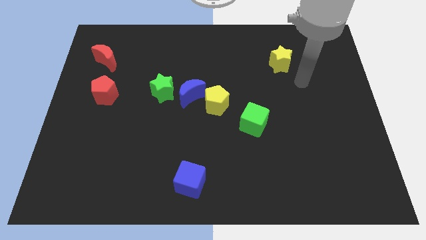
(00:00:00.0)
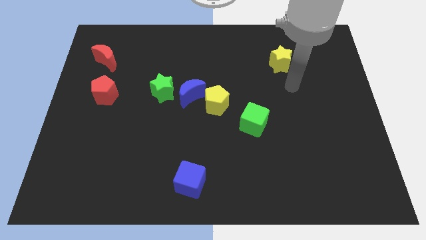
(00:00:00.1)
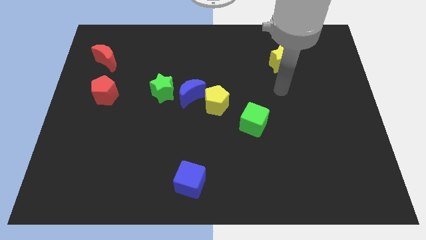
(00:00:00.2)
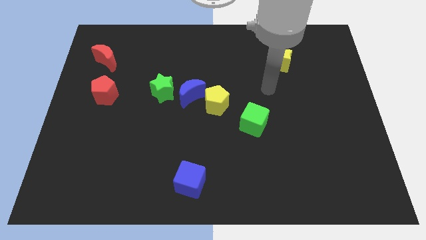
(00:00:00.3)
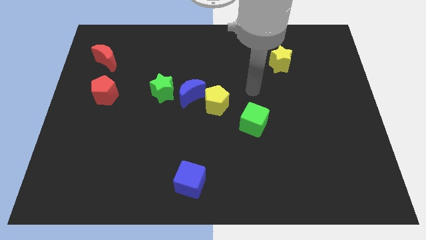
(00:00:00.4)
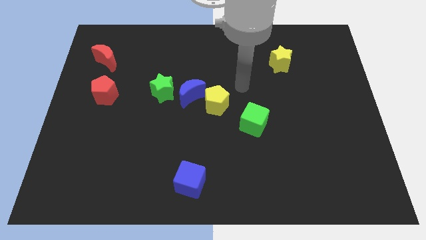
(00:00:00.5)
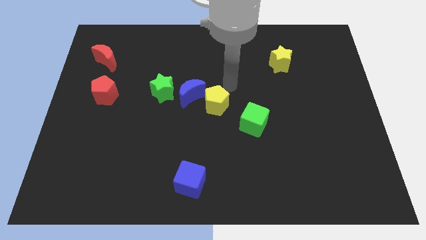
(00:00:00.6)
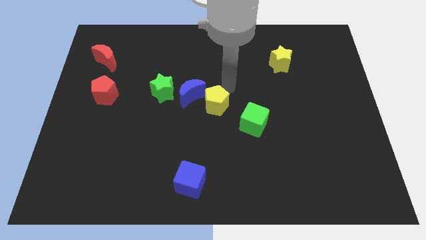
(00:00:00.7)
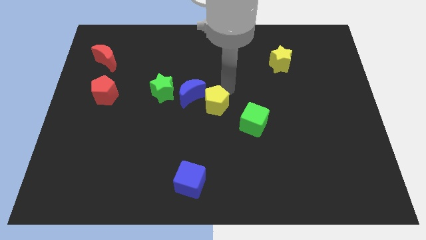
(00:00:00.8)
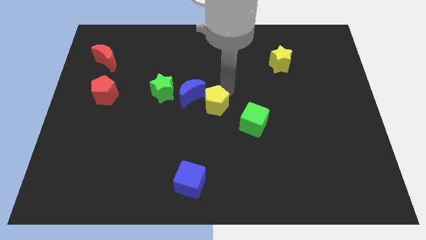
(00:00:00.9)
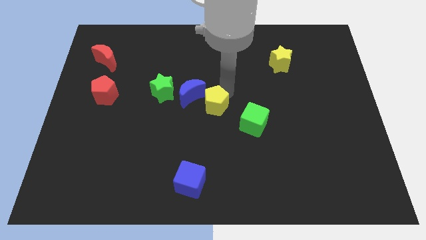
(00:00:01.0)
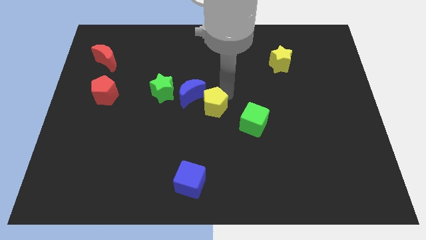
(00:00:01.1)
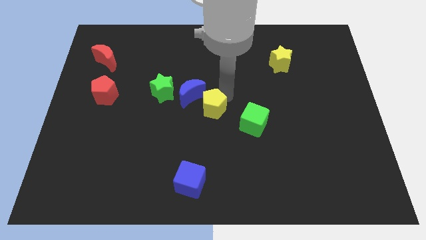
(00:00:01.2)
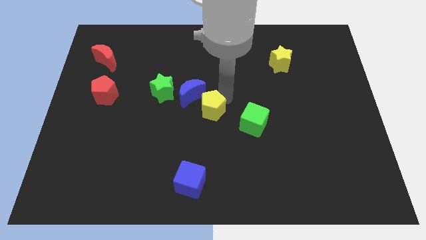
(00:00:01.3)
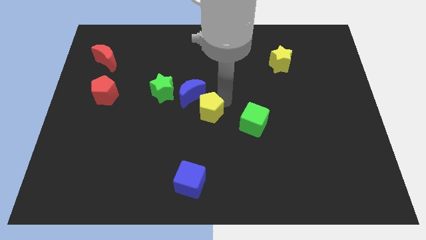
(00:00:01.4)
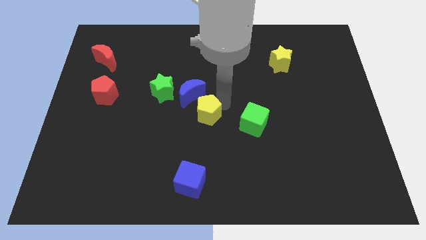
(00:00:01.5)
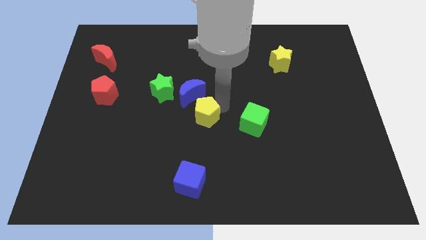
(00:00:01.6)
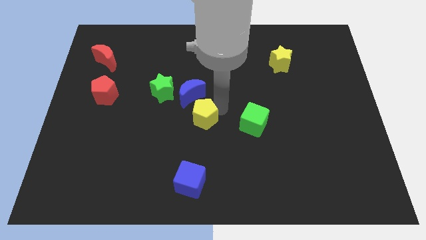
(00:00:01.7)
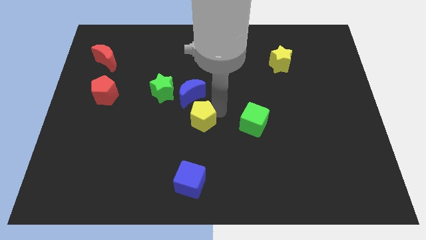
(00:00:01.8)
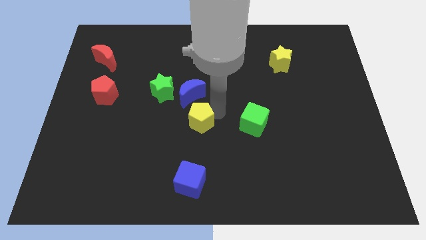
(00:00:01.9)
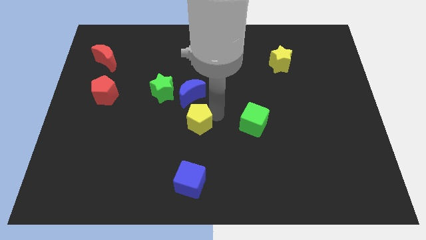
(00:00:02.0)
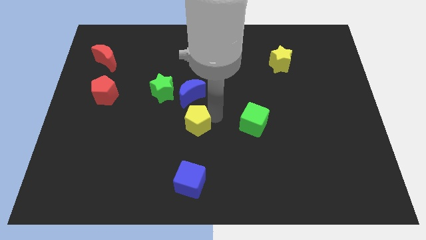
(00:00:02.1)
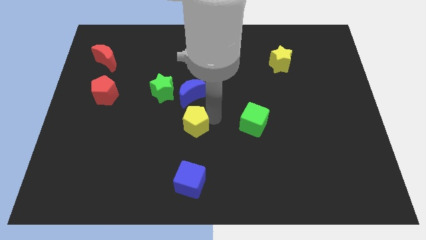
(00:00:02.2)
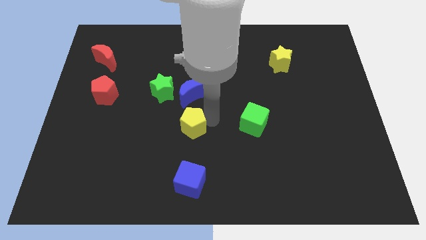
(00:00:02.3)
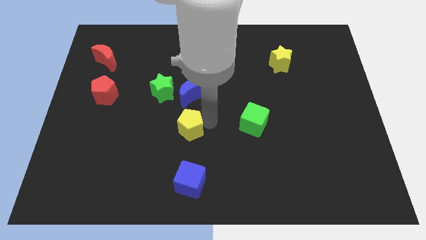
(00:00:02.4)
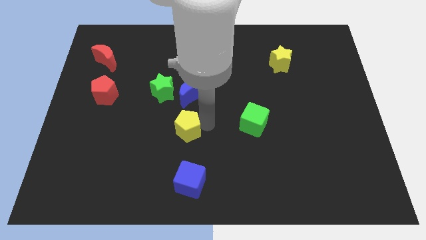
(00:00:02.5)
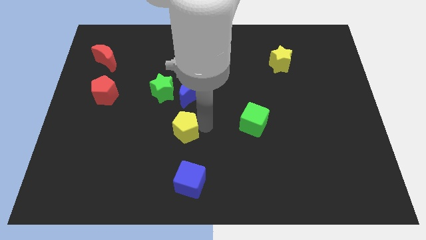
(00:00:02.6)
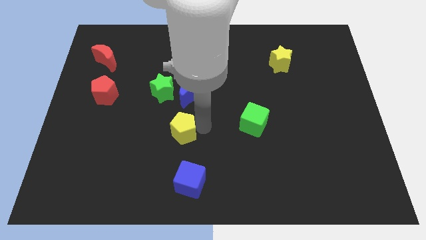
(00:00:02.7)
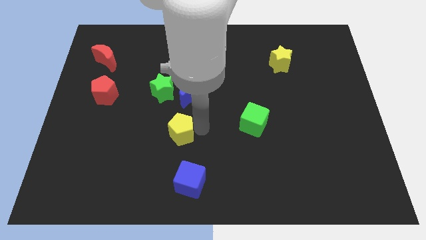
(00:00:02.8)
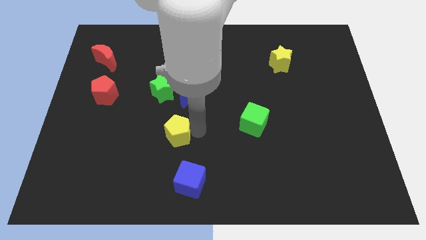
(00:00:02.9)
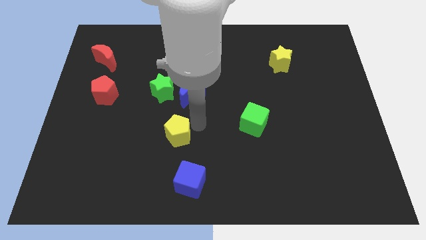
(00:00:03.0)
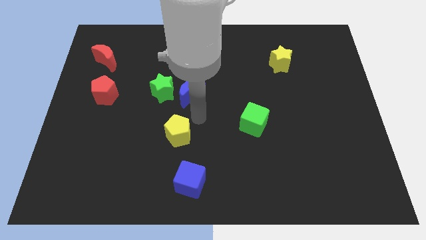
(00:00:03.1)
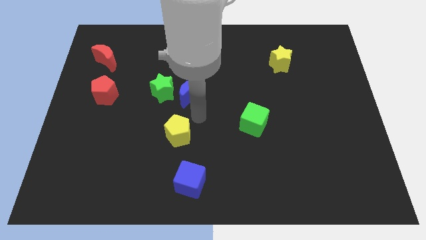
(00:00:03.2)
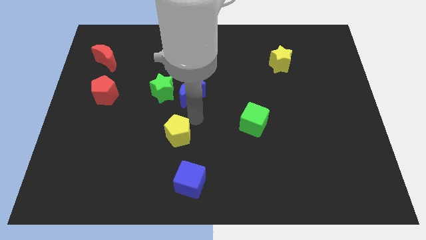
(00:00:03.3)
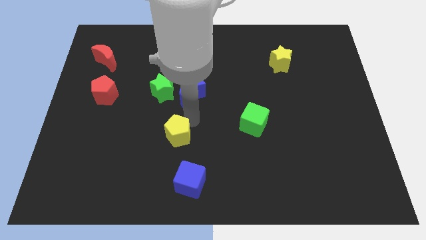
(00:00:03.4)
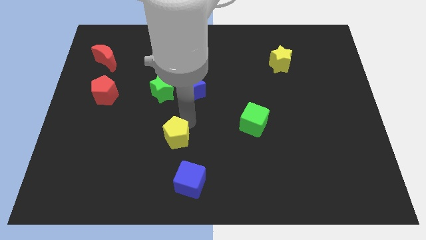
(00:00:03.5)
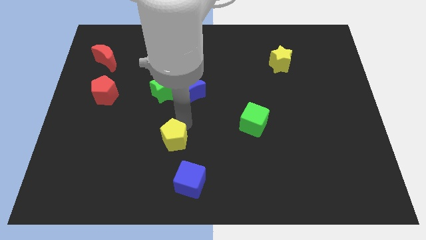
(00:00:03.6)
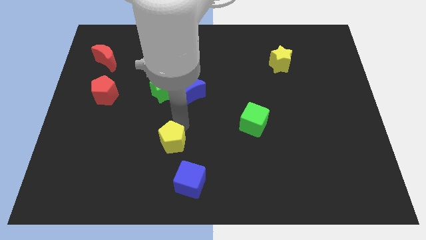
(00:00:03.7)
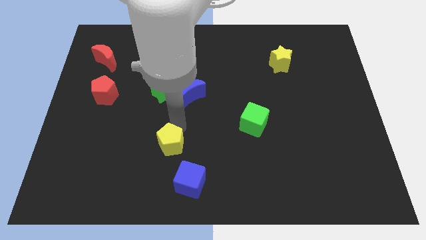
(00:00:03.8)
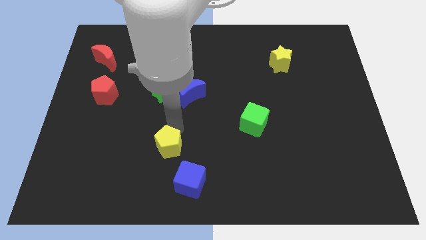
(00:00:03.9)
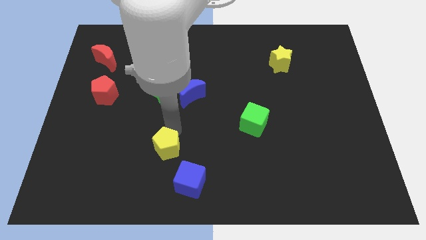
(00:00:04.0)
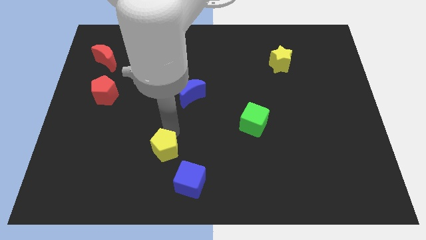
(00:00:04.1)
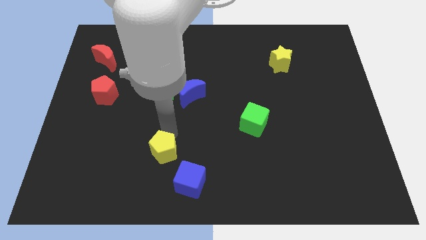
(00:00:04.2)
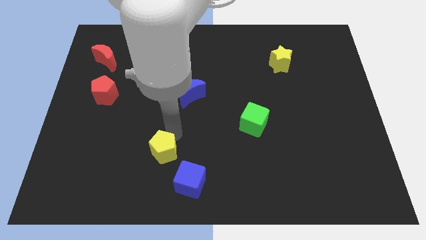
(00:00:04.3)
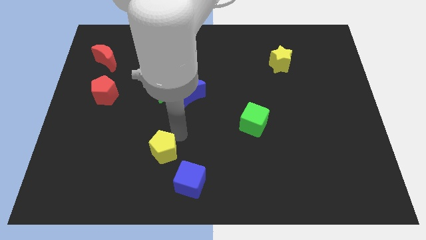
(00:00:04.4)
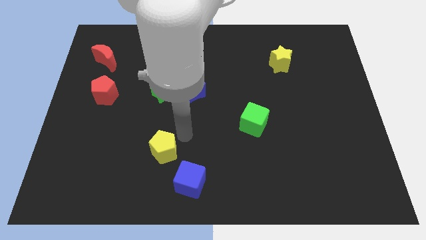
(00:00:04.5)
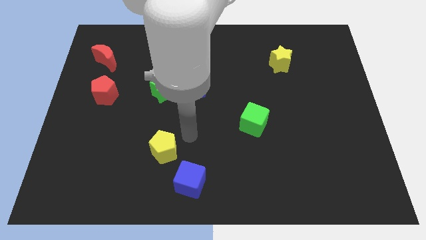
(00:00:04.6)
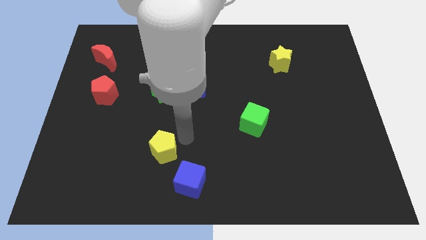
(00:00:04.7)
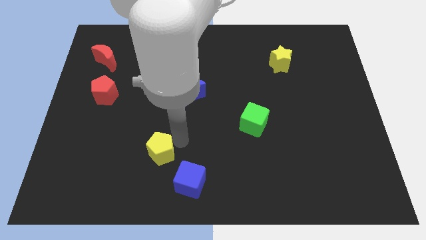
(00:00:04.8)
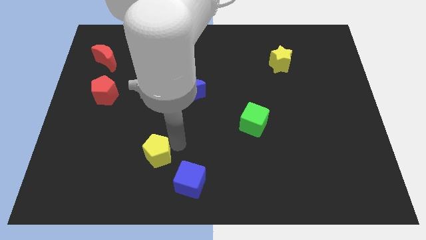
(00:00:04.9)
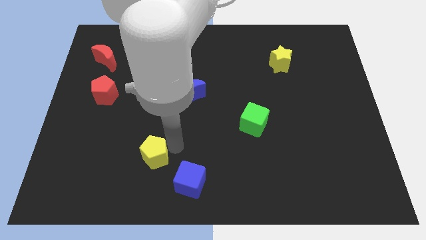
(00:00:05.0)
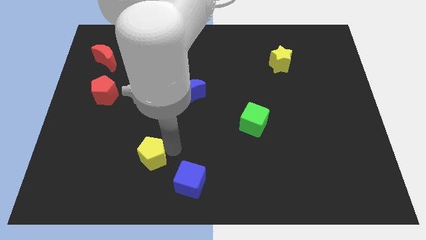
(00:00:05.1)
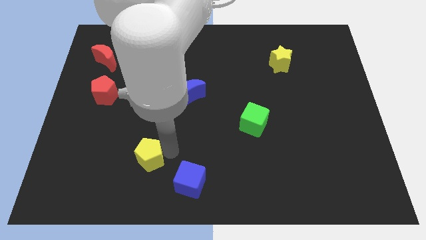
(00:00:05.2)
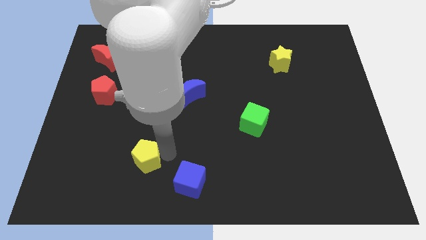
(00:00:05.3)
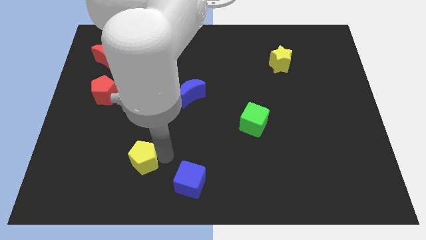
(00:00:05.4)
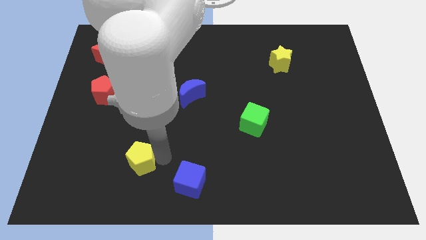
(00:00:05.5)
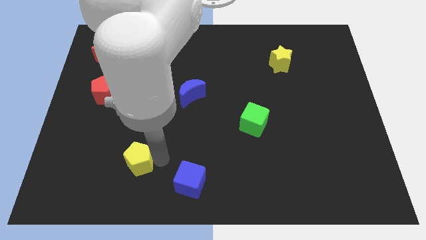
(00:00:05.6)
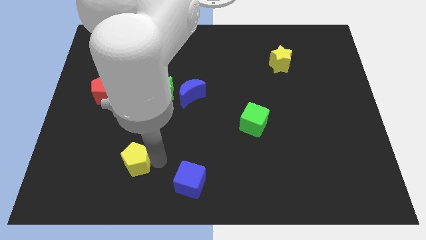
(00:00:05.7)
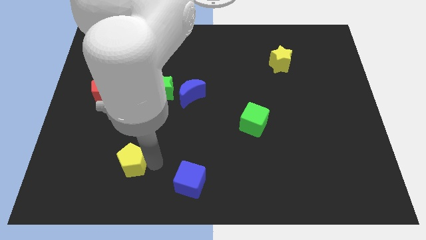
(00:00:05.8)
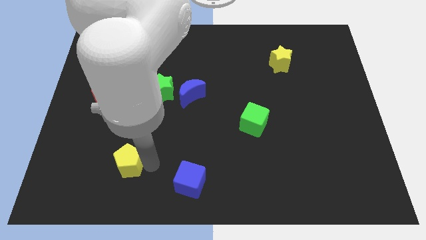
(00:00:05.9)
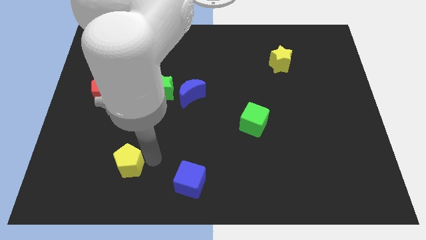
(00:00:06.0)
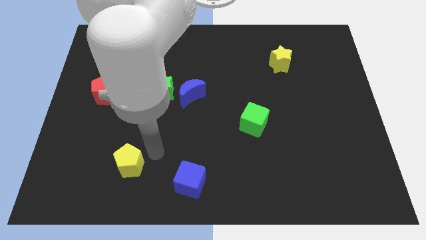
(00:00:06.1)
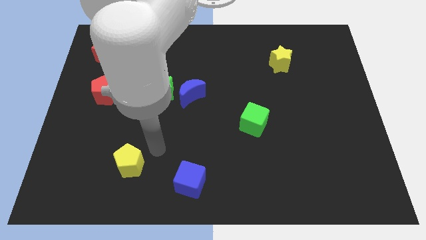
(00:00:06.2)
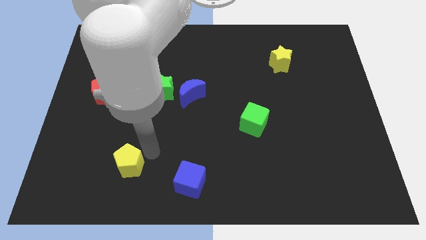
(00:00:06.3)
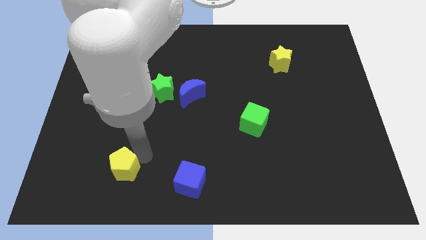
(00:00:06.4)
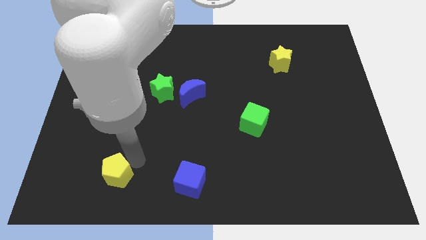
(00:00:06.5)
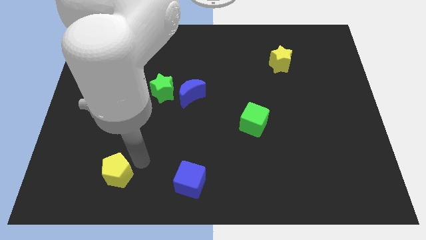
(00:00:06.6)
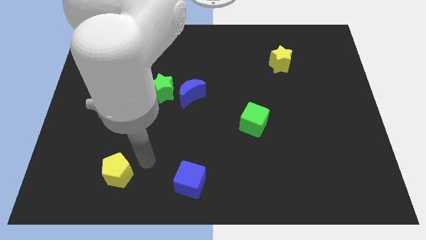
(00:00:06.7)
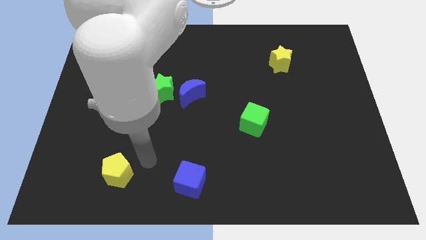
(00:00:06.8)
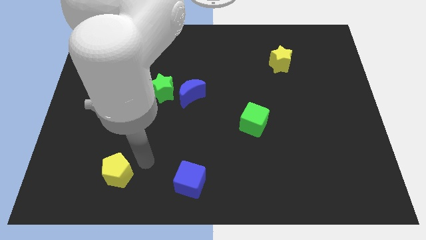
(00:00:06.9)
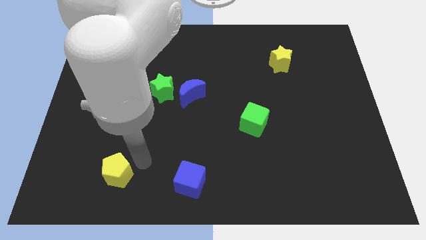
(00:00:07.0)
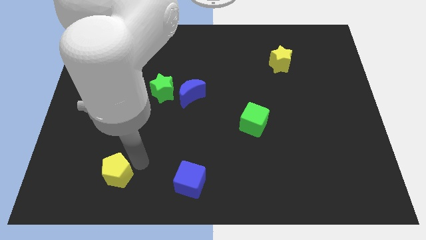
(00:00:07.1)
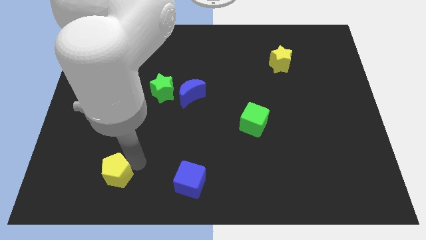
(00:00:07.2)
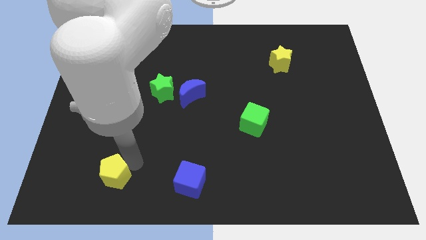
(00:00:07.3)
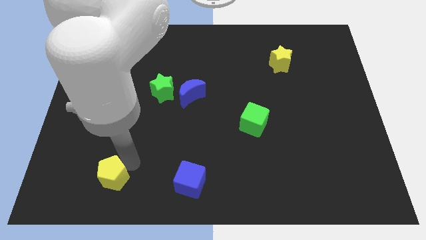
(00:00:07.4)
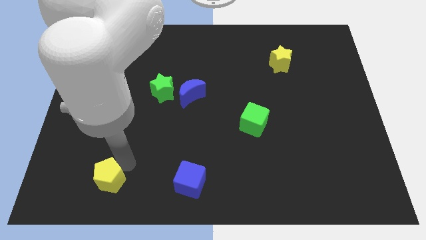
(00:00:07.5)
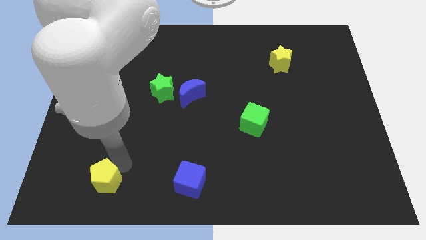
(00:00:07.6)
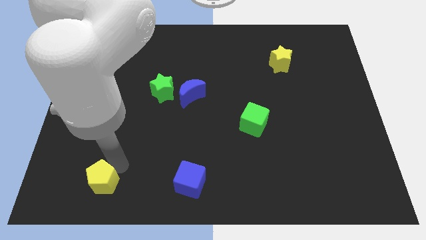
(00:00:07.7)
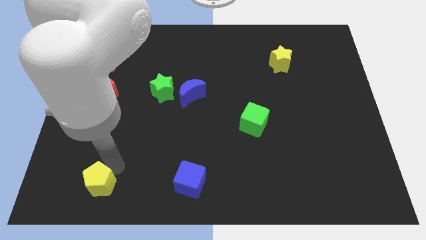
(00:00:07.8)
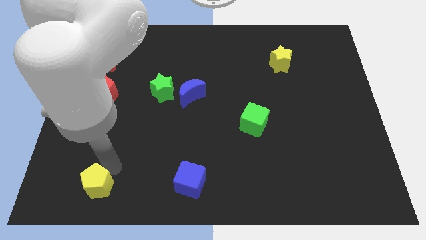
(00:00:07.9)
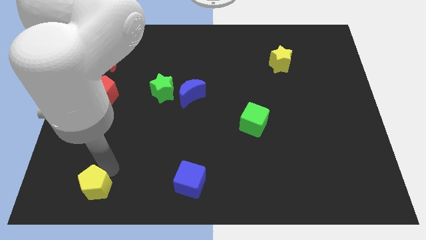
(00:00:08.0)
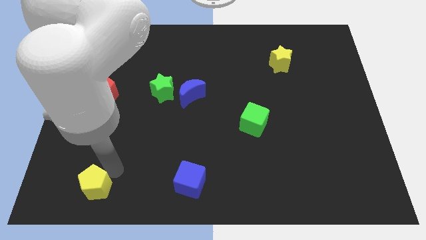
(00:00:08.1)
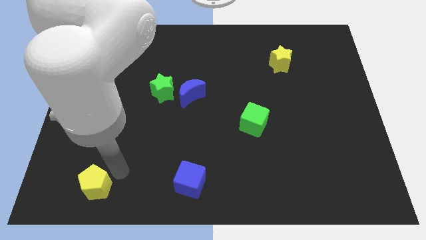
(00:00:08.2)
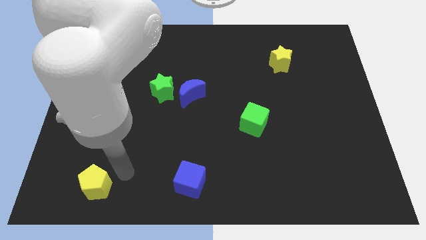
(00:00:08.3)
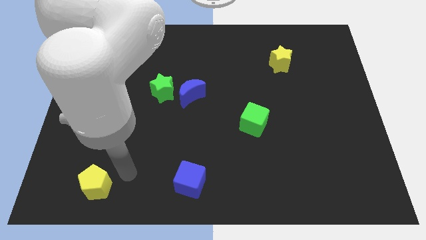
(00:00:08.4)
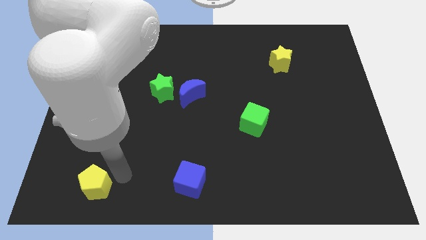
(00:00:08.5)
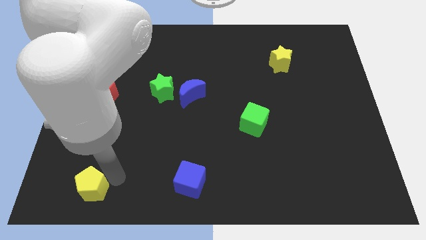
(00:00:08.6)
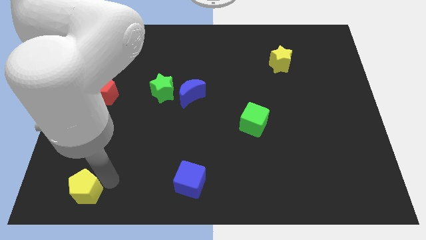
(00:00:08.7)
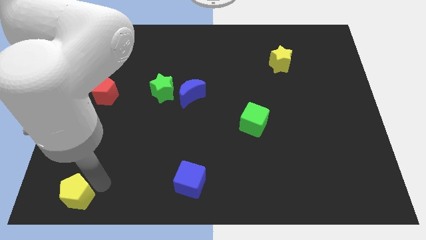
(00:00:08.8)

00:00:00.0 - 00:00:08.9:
move the yellow pentagon to the bottom left of the board
